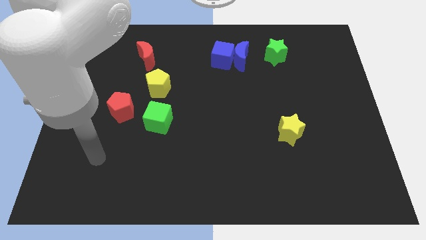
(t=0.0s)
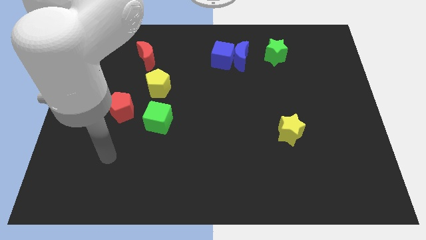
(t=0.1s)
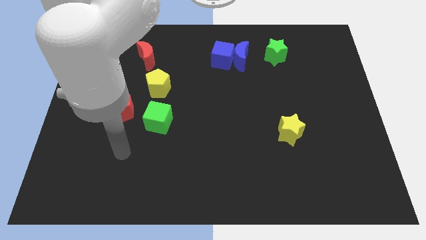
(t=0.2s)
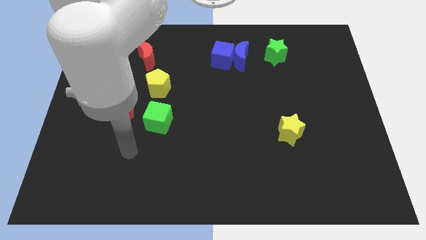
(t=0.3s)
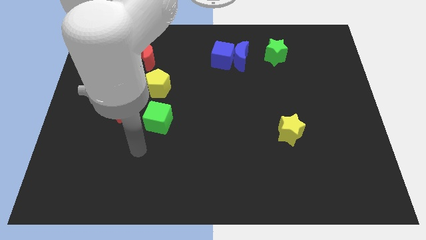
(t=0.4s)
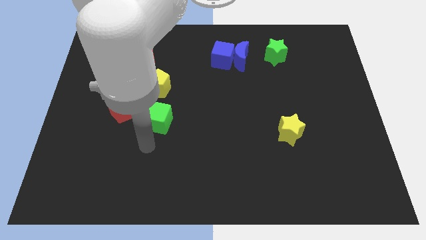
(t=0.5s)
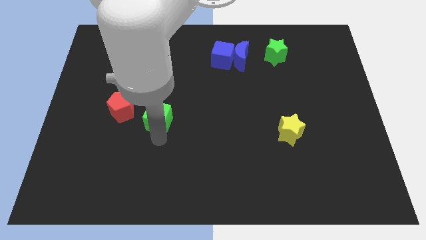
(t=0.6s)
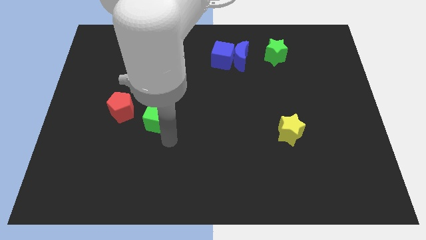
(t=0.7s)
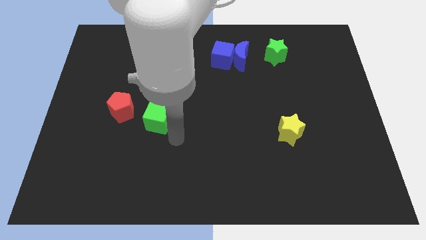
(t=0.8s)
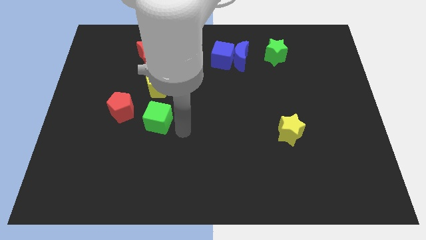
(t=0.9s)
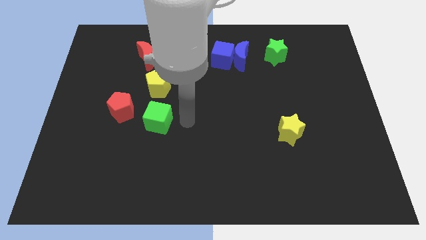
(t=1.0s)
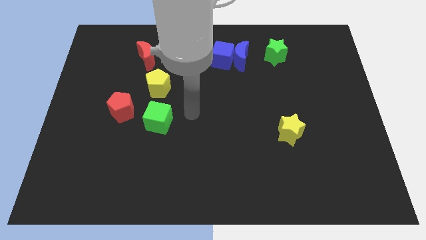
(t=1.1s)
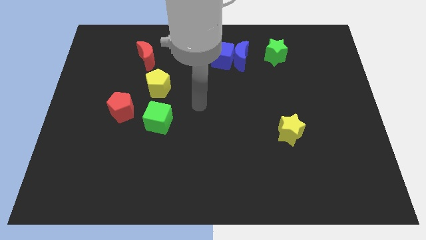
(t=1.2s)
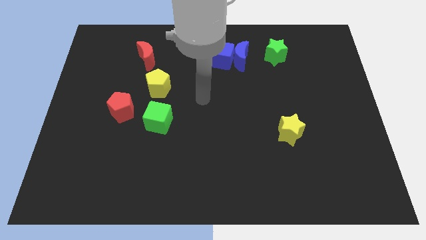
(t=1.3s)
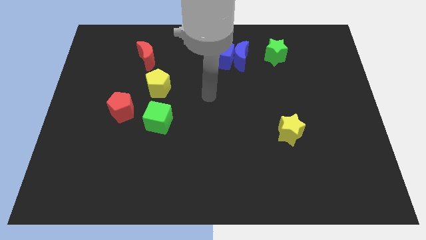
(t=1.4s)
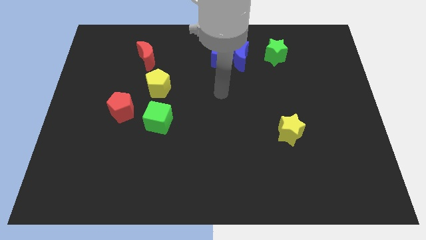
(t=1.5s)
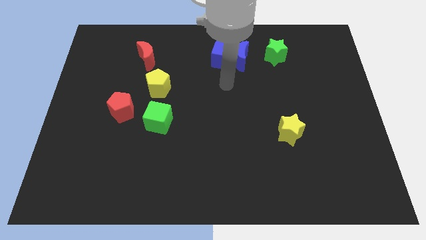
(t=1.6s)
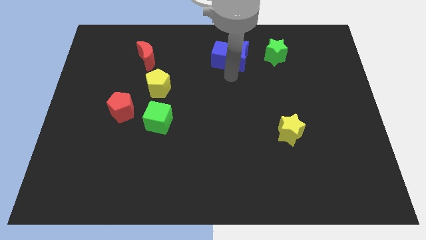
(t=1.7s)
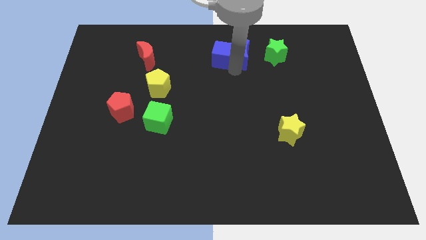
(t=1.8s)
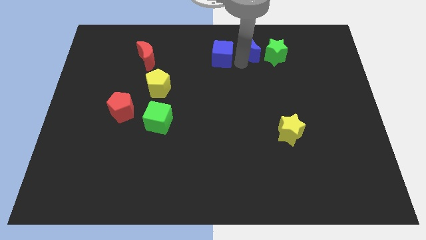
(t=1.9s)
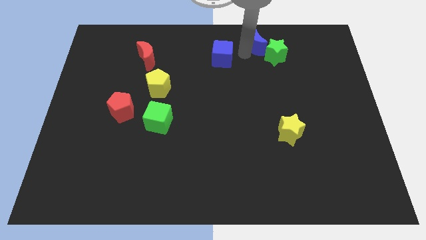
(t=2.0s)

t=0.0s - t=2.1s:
pull the blue cube apart from the blue moon

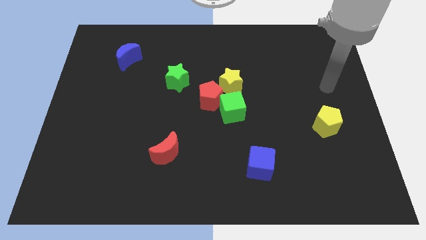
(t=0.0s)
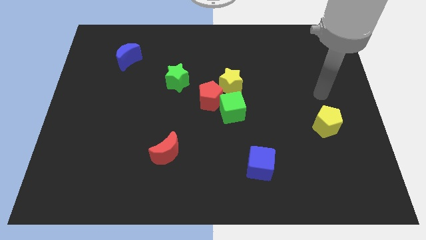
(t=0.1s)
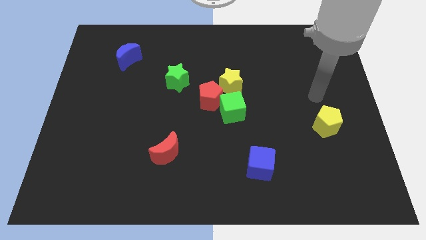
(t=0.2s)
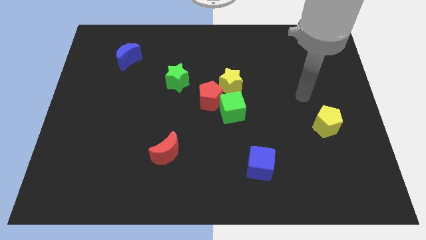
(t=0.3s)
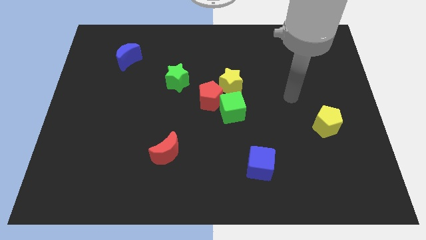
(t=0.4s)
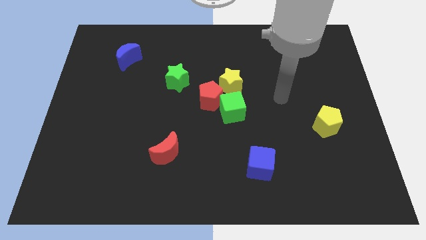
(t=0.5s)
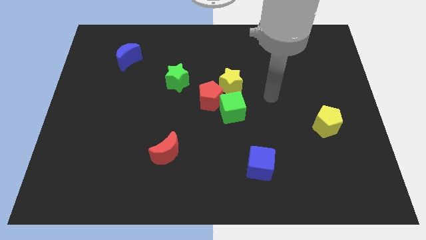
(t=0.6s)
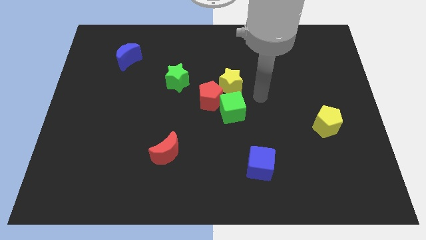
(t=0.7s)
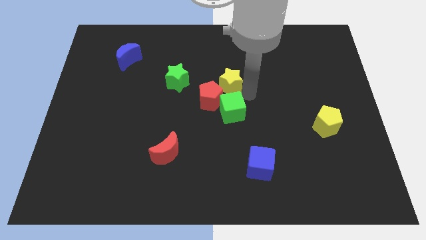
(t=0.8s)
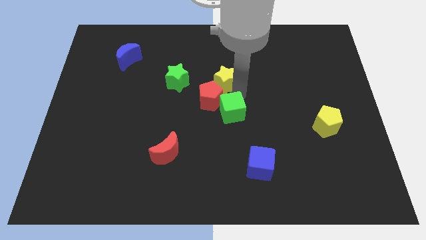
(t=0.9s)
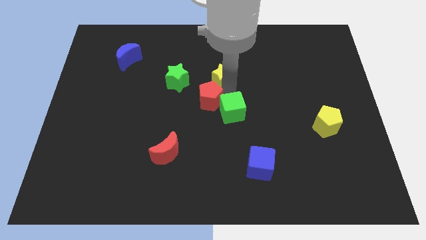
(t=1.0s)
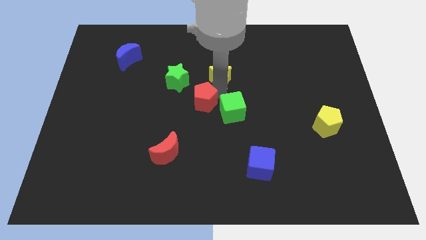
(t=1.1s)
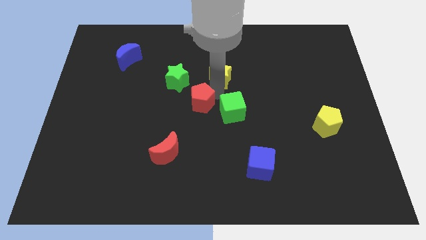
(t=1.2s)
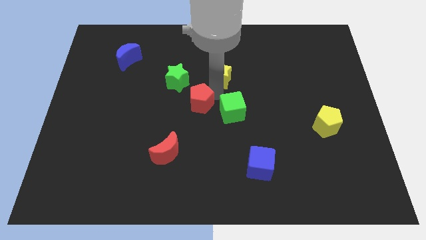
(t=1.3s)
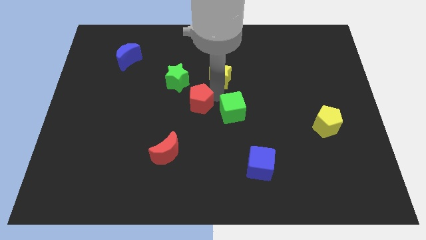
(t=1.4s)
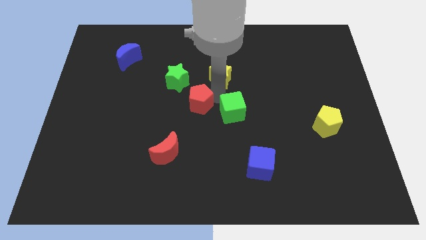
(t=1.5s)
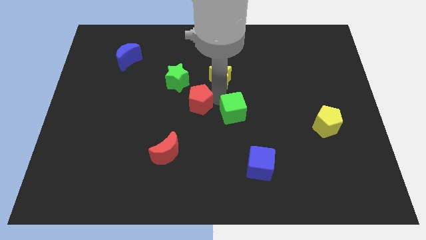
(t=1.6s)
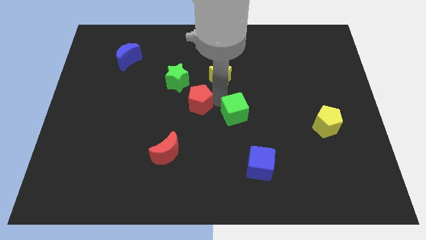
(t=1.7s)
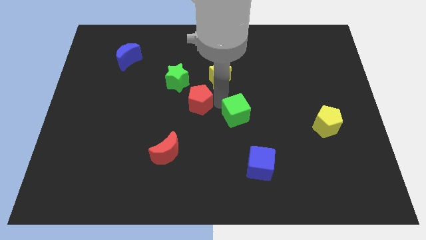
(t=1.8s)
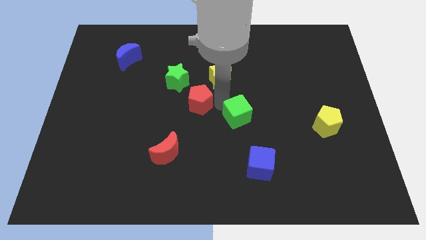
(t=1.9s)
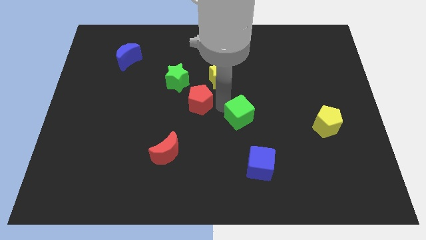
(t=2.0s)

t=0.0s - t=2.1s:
pull the green cube apart from the red pentagon and yellow star

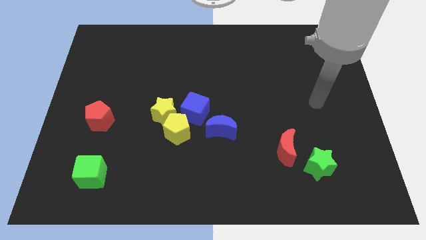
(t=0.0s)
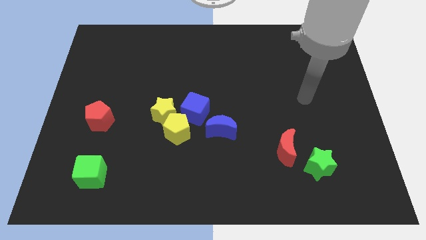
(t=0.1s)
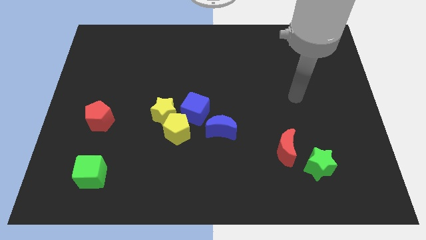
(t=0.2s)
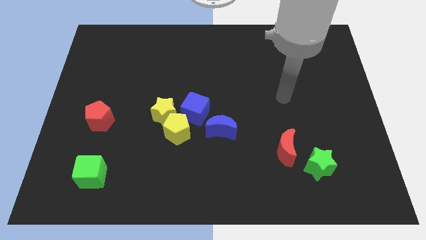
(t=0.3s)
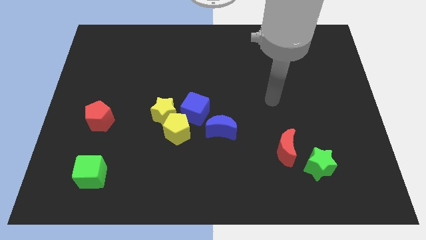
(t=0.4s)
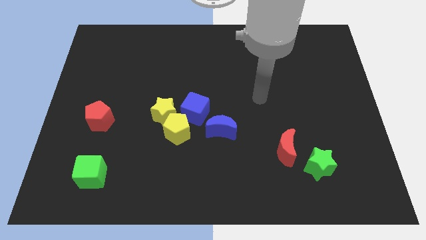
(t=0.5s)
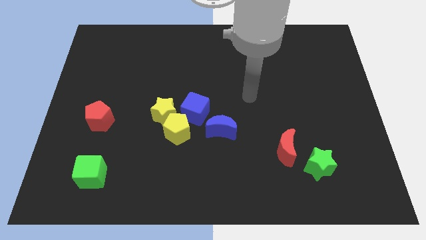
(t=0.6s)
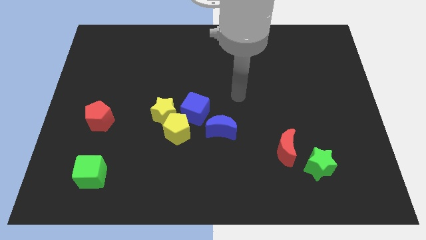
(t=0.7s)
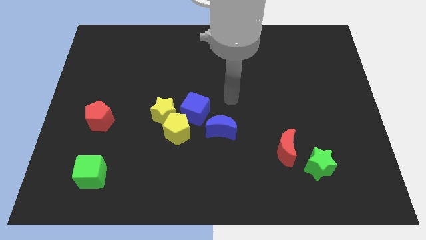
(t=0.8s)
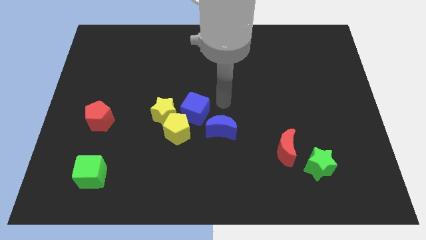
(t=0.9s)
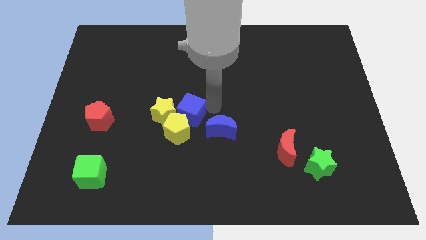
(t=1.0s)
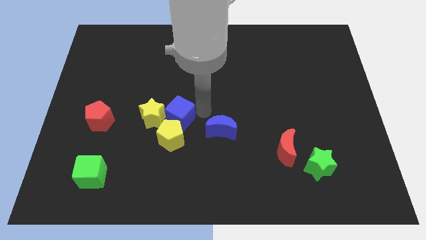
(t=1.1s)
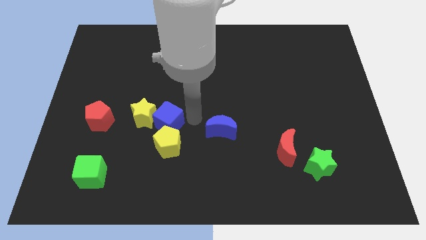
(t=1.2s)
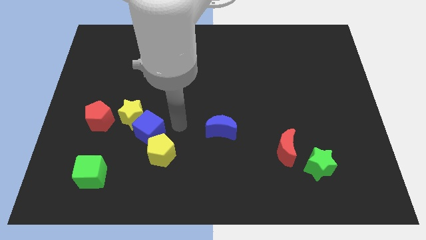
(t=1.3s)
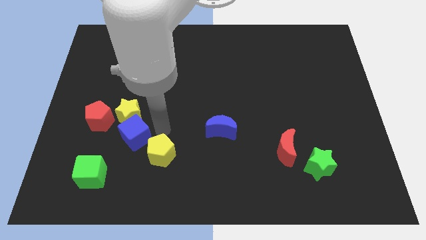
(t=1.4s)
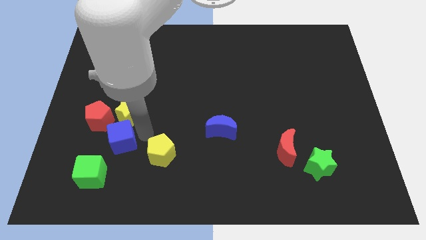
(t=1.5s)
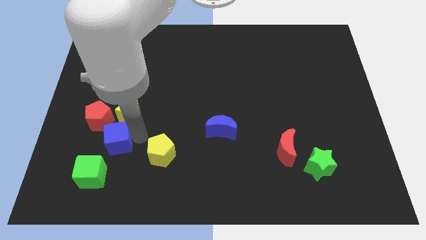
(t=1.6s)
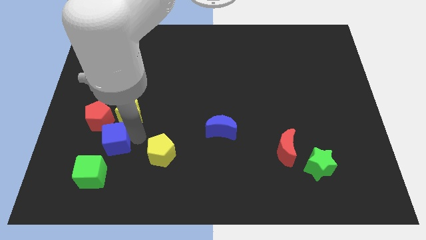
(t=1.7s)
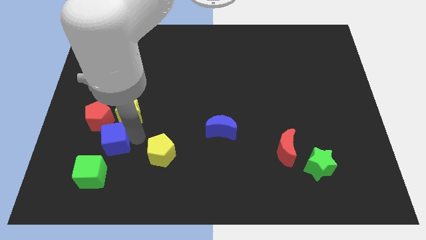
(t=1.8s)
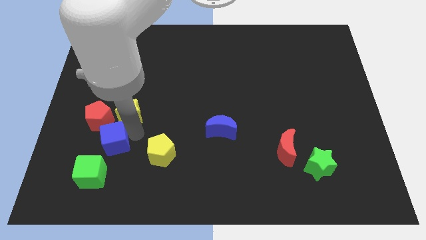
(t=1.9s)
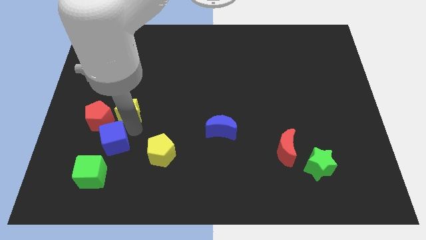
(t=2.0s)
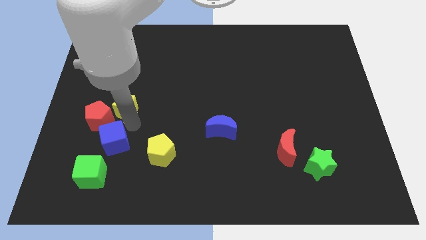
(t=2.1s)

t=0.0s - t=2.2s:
pull the yellow star apart from the yellow pentagon and blue cube

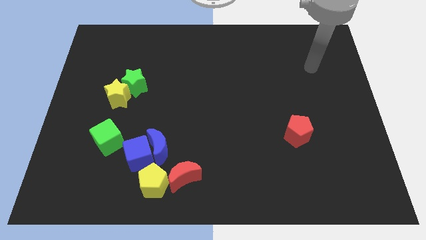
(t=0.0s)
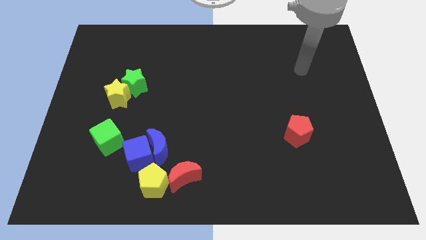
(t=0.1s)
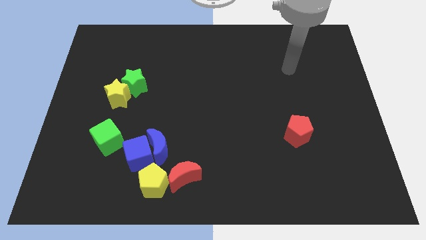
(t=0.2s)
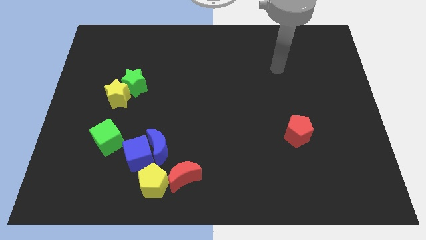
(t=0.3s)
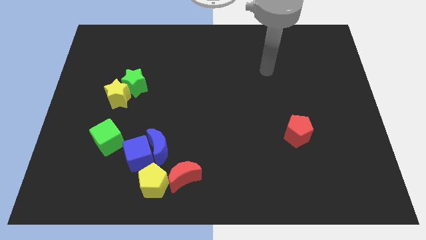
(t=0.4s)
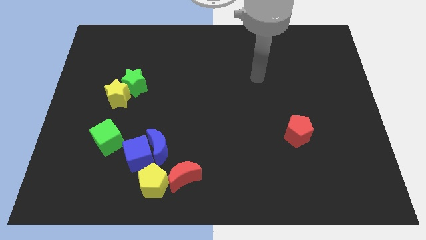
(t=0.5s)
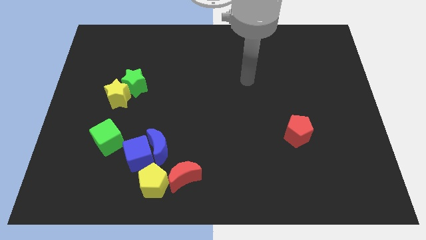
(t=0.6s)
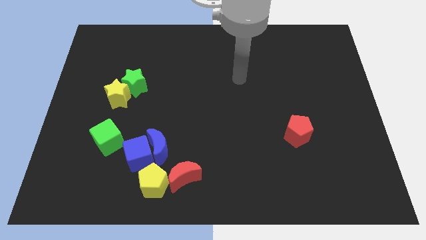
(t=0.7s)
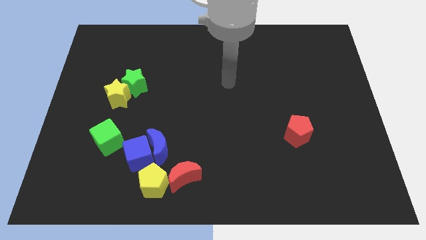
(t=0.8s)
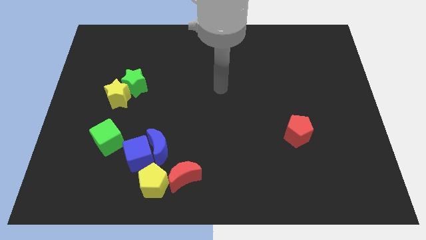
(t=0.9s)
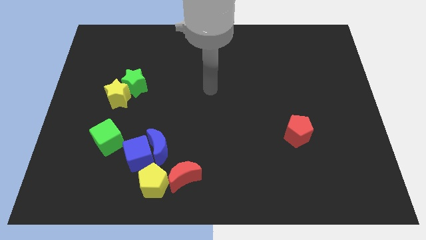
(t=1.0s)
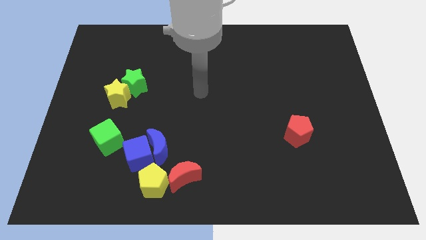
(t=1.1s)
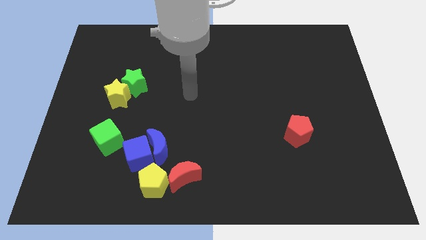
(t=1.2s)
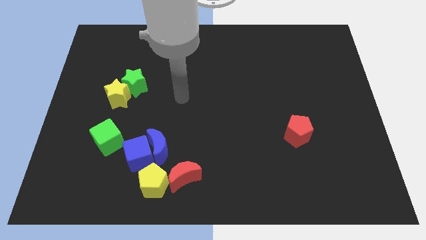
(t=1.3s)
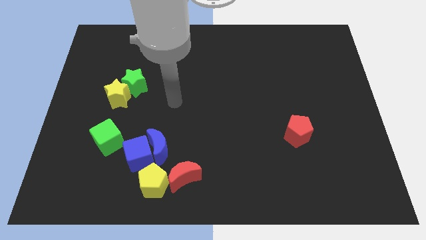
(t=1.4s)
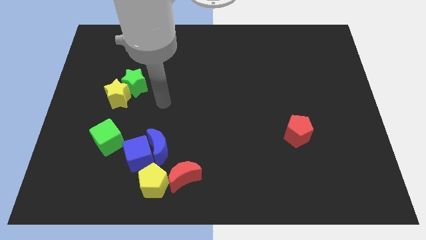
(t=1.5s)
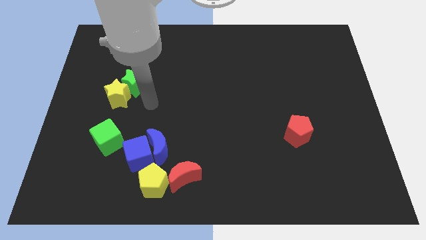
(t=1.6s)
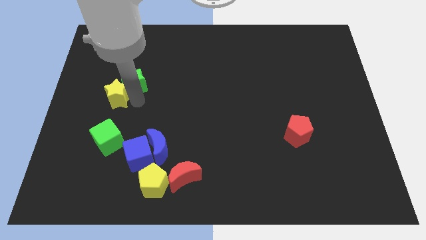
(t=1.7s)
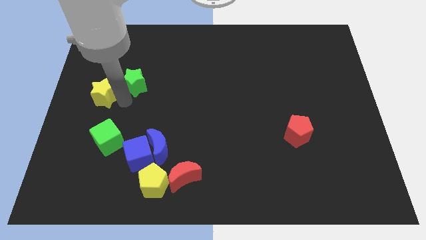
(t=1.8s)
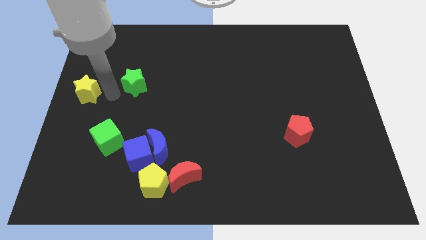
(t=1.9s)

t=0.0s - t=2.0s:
move the green star away from the yellow star

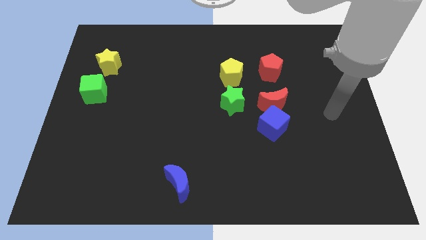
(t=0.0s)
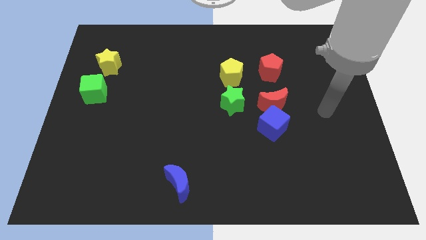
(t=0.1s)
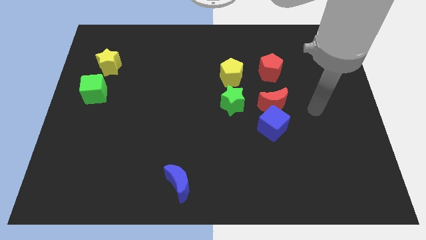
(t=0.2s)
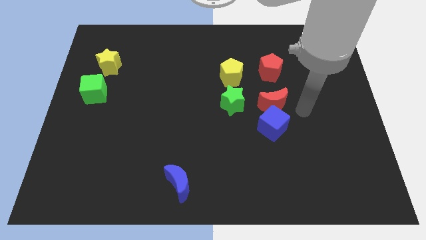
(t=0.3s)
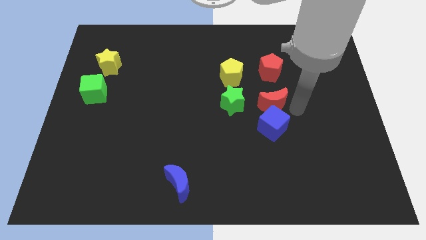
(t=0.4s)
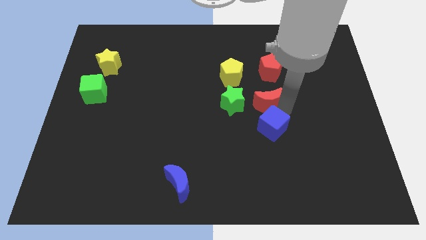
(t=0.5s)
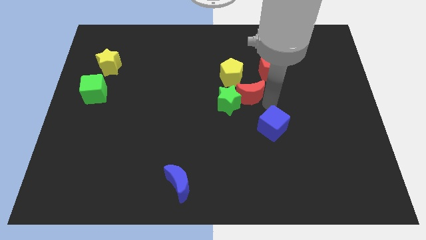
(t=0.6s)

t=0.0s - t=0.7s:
pull the blue cube apart from the red moon

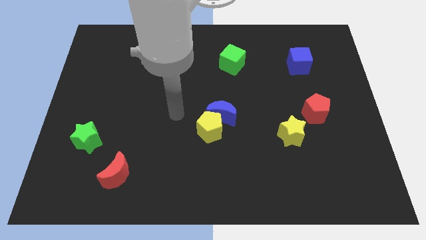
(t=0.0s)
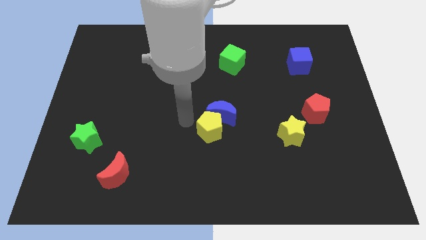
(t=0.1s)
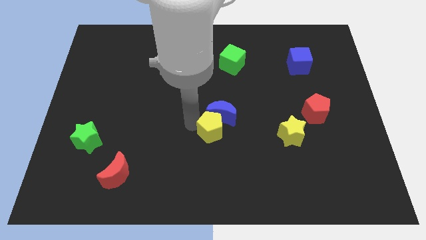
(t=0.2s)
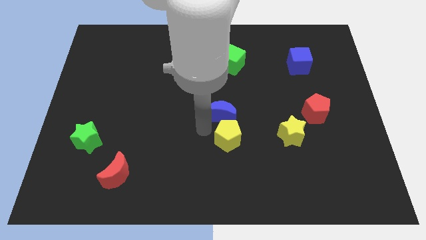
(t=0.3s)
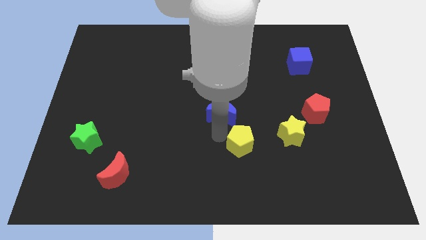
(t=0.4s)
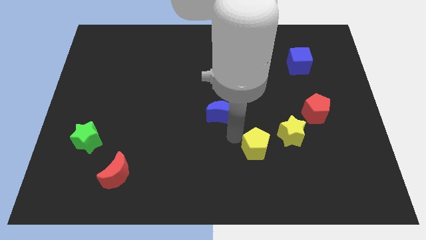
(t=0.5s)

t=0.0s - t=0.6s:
separate the blue moon from the yellow pentagon
